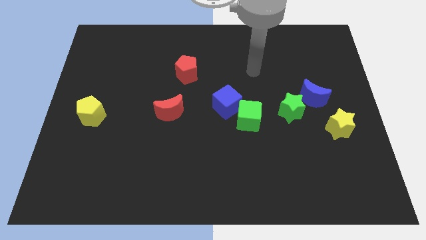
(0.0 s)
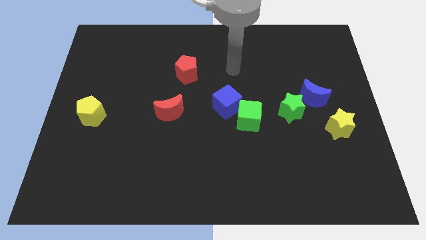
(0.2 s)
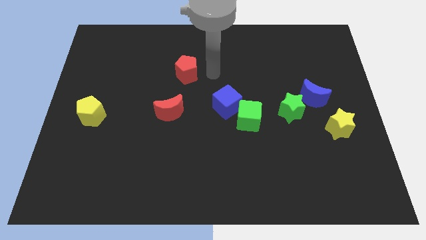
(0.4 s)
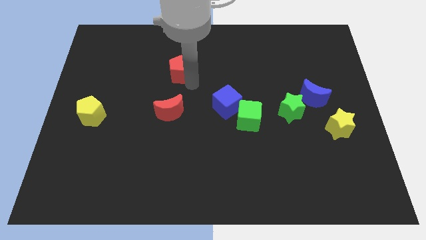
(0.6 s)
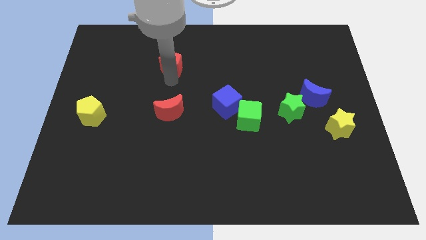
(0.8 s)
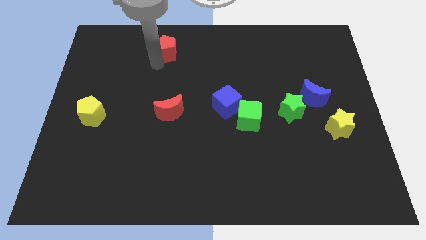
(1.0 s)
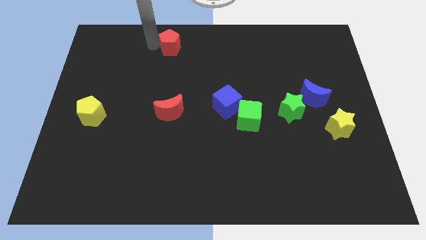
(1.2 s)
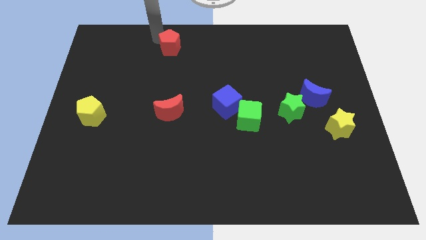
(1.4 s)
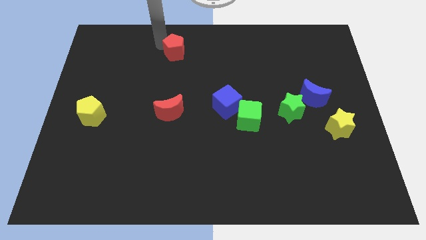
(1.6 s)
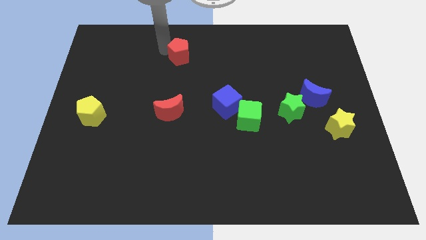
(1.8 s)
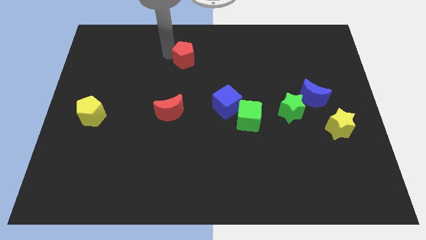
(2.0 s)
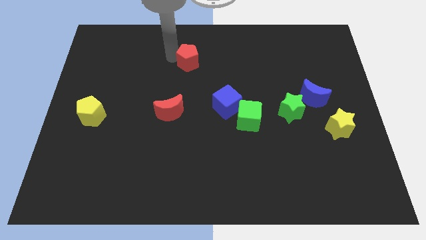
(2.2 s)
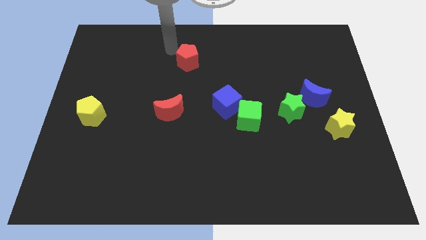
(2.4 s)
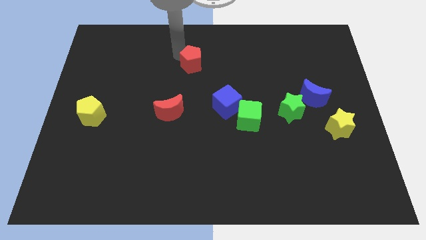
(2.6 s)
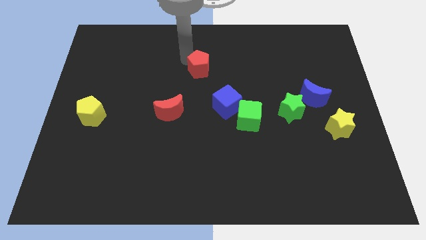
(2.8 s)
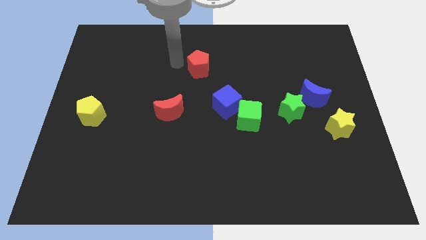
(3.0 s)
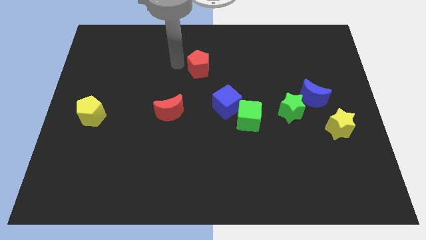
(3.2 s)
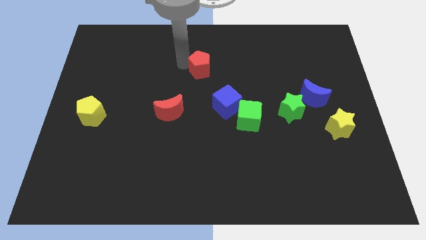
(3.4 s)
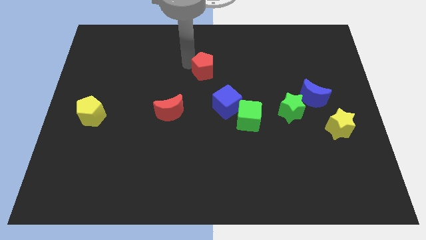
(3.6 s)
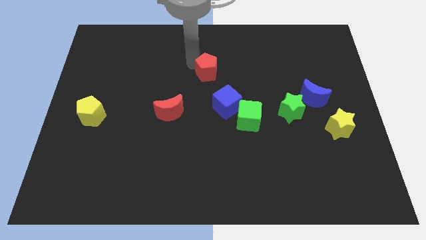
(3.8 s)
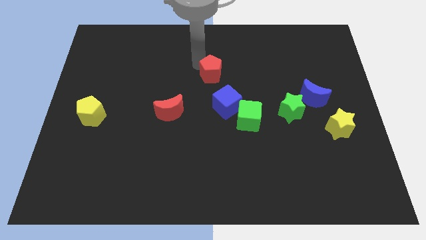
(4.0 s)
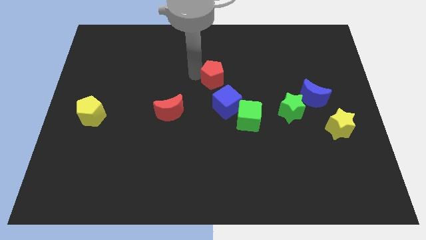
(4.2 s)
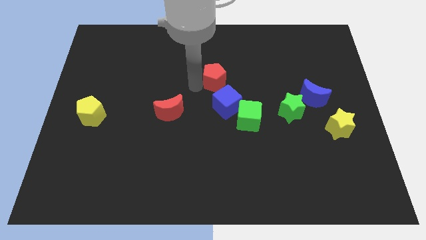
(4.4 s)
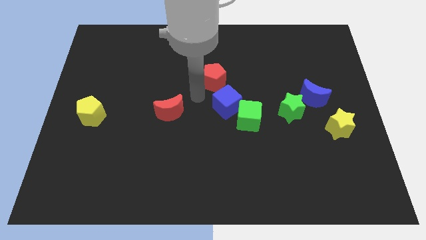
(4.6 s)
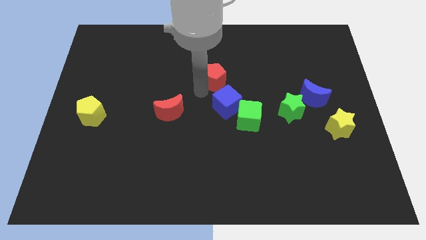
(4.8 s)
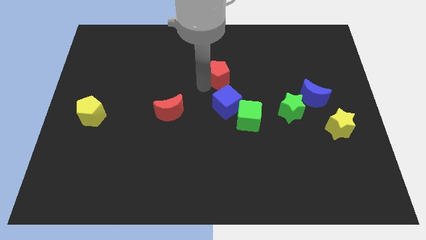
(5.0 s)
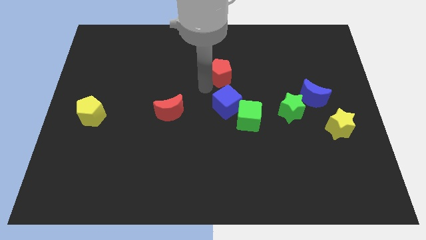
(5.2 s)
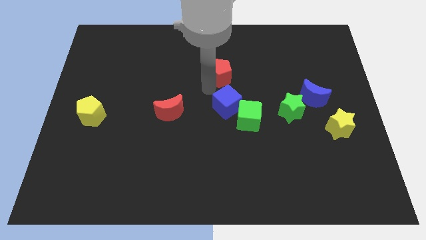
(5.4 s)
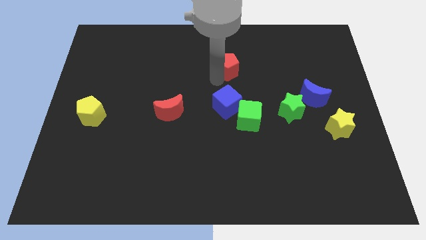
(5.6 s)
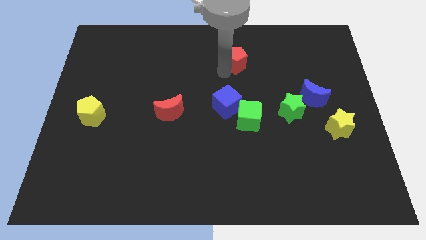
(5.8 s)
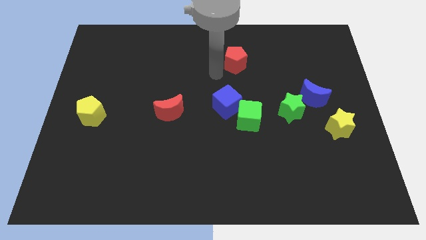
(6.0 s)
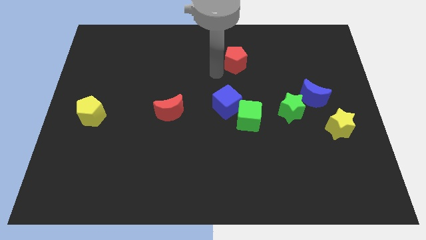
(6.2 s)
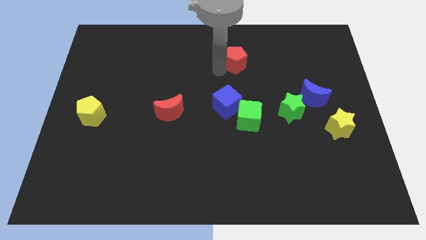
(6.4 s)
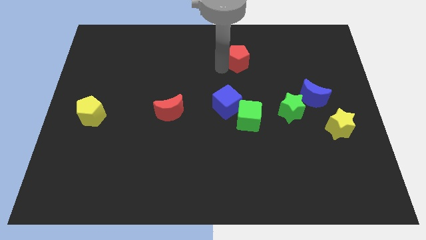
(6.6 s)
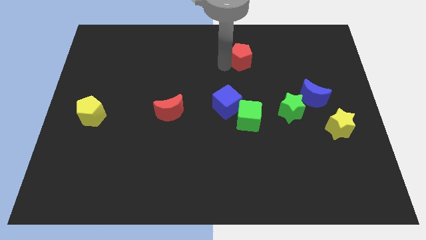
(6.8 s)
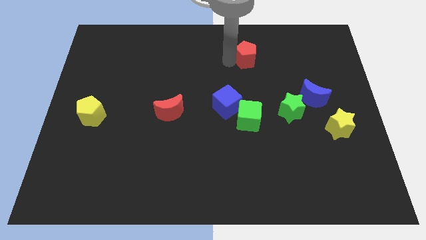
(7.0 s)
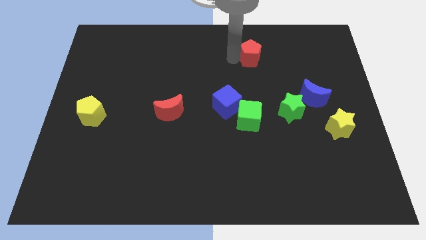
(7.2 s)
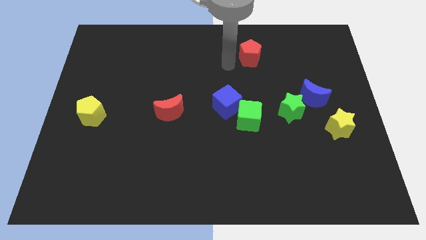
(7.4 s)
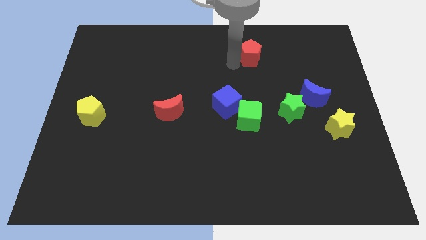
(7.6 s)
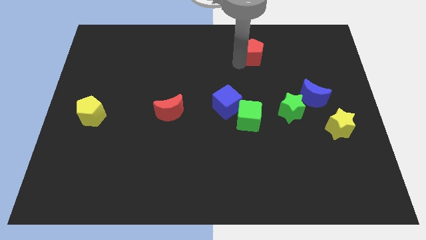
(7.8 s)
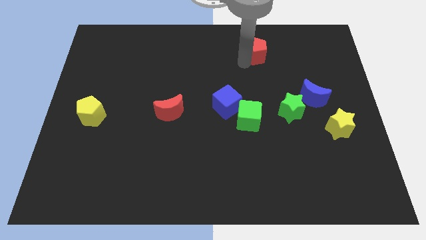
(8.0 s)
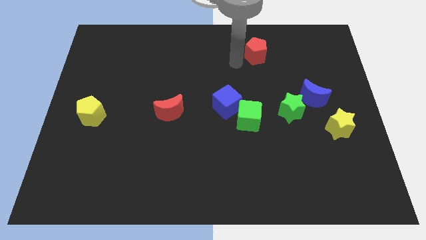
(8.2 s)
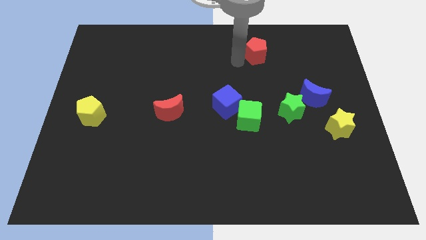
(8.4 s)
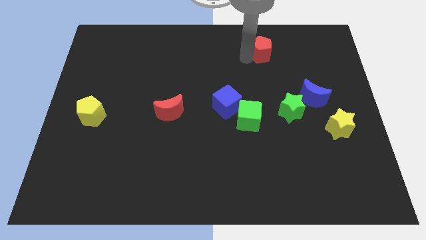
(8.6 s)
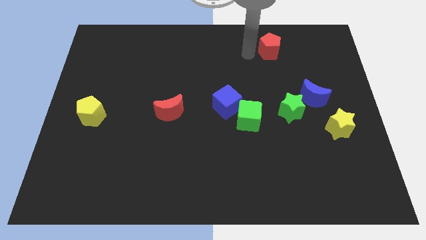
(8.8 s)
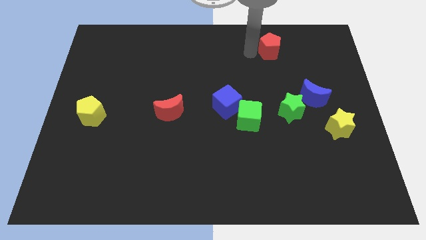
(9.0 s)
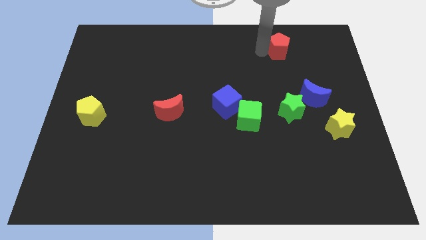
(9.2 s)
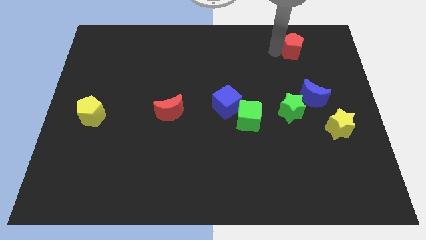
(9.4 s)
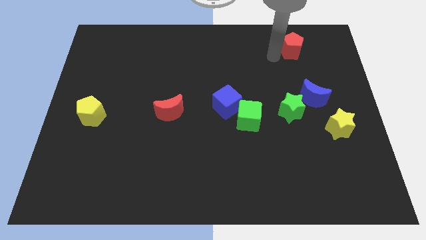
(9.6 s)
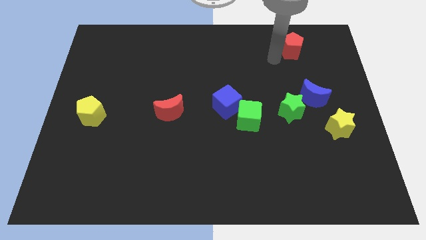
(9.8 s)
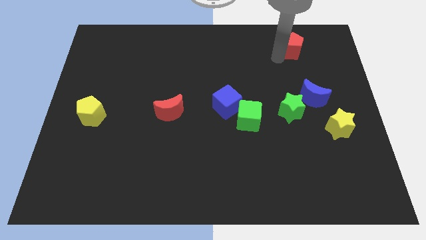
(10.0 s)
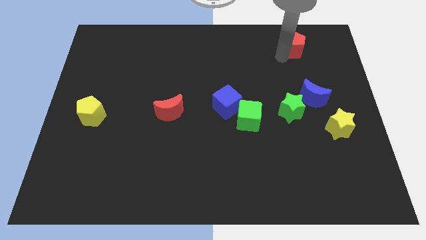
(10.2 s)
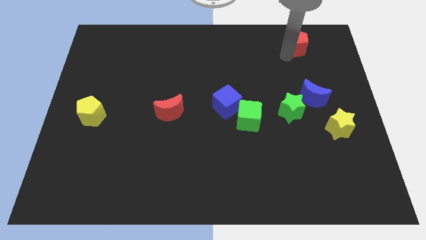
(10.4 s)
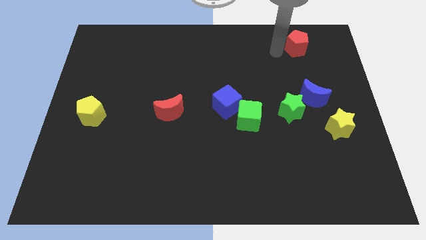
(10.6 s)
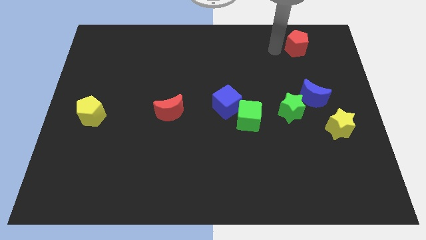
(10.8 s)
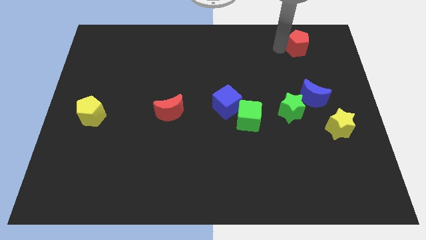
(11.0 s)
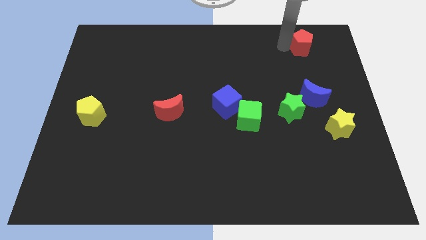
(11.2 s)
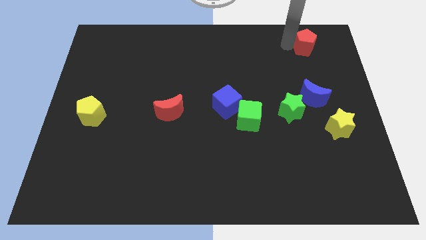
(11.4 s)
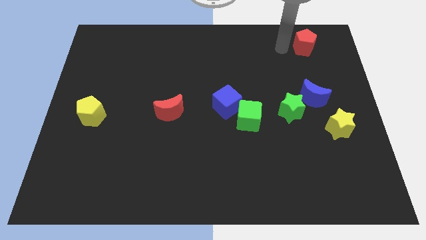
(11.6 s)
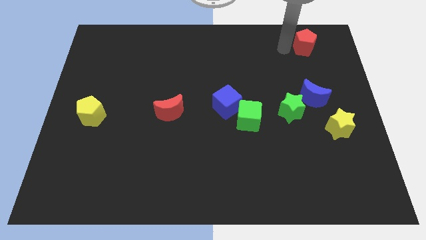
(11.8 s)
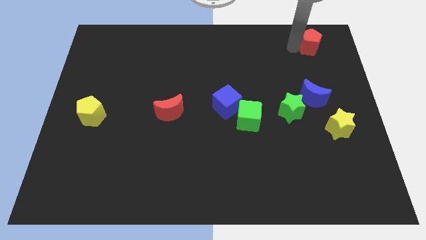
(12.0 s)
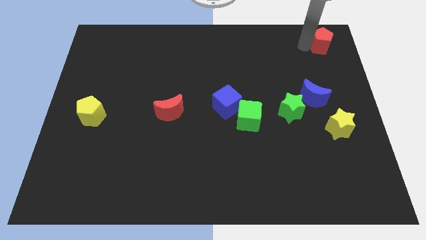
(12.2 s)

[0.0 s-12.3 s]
push the red pentagon to the top right of the board
